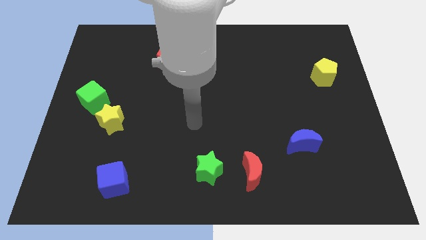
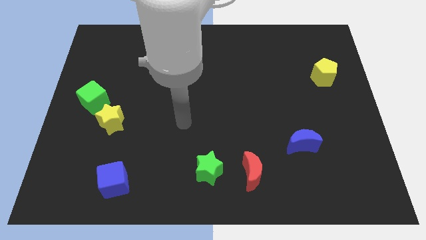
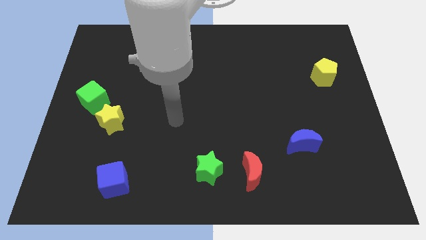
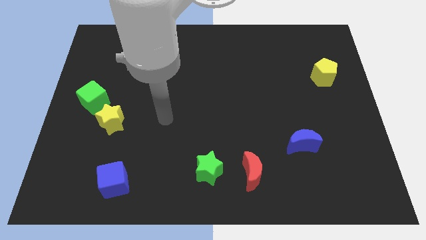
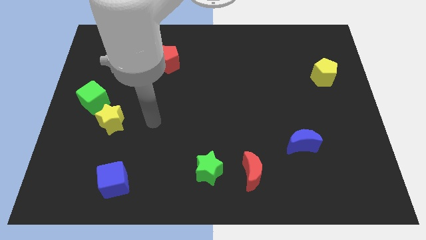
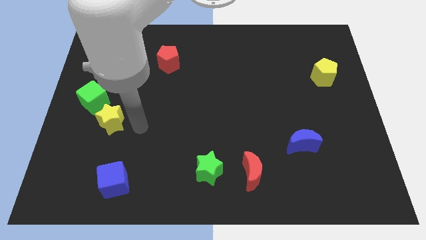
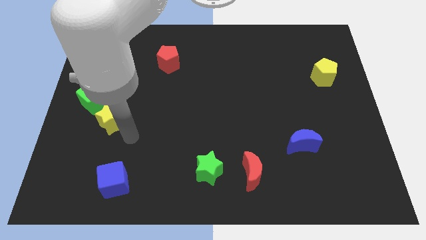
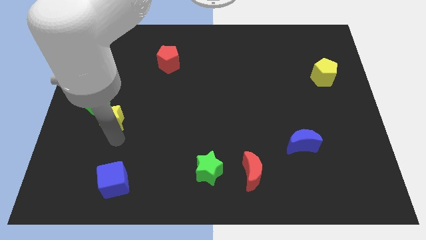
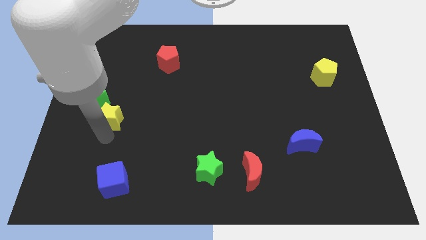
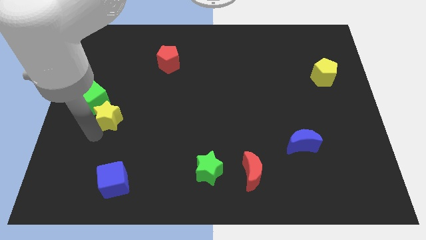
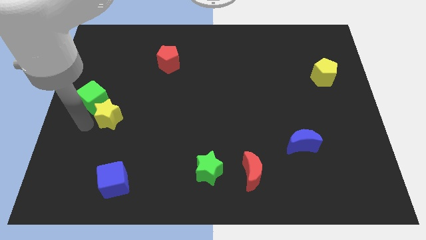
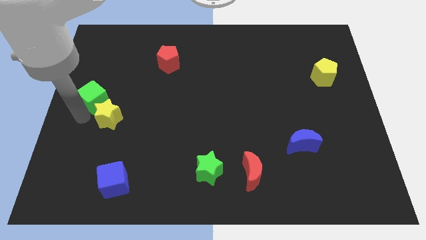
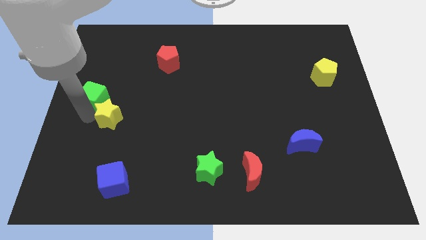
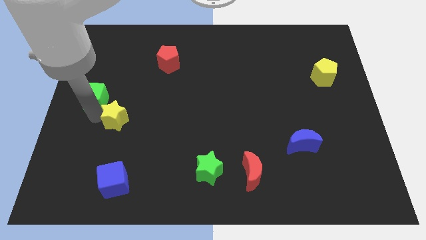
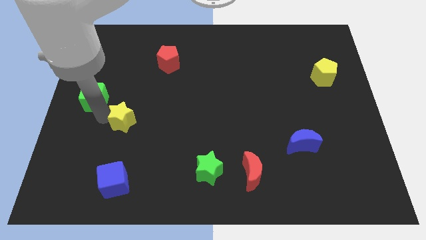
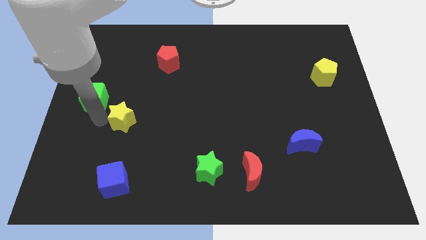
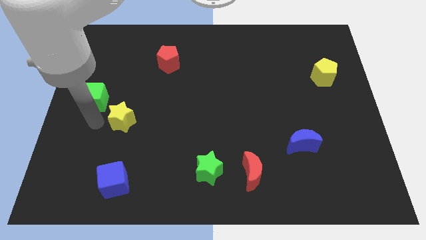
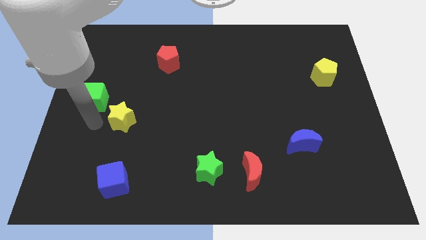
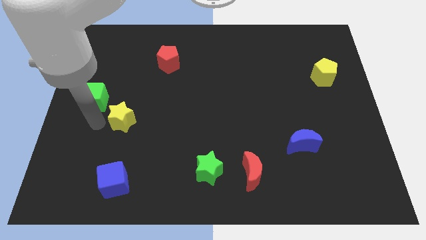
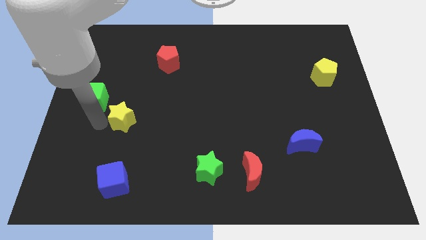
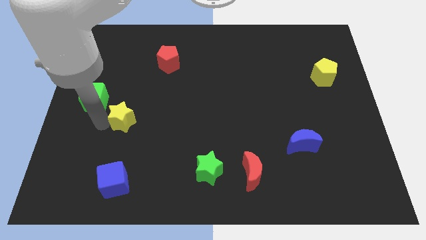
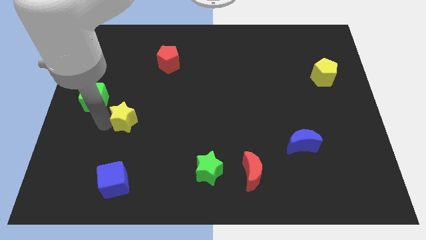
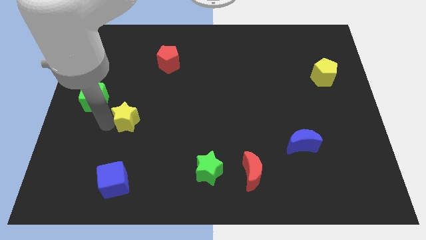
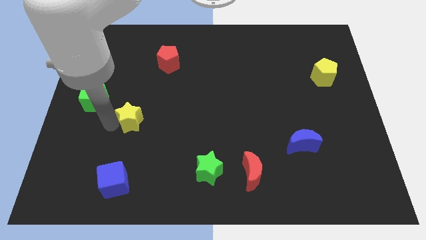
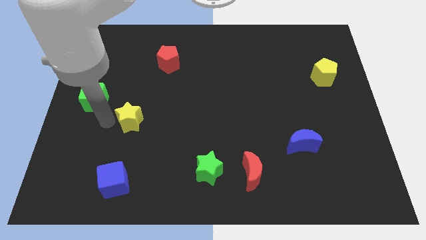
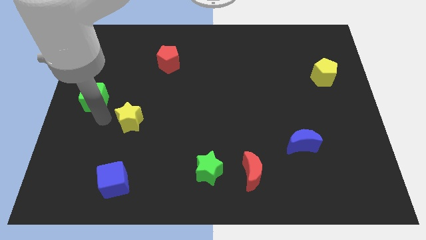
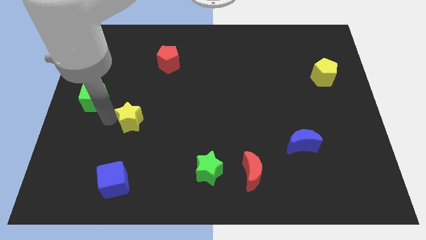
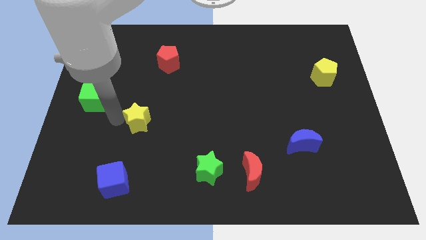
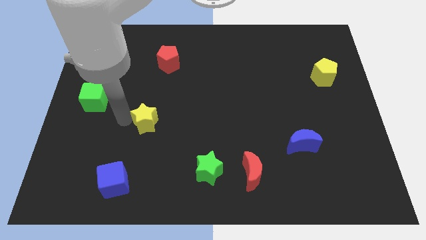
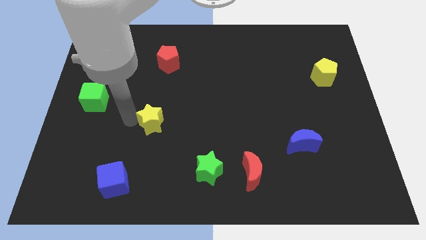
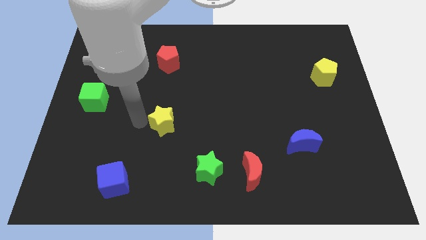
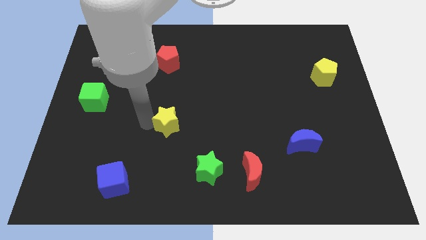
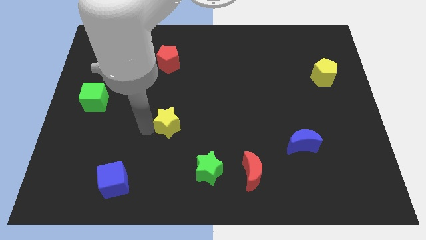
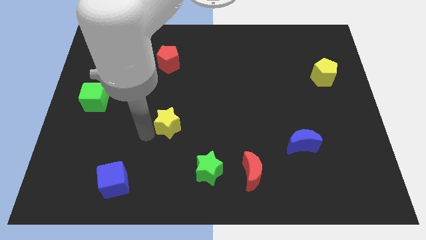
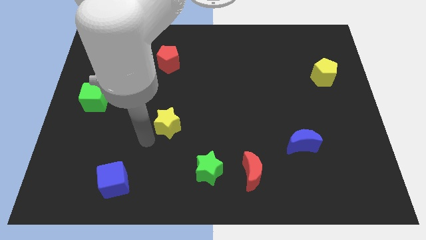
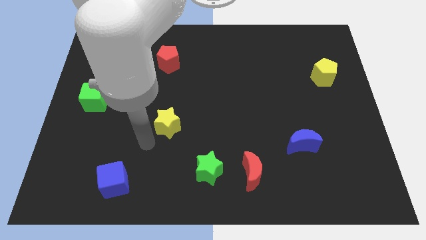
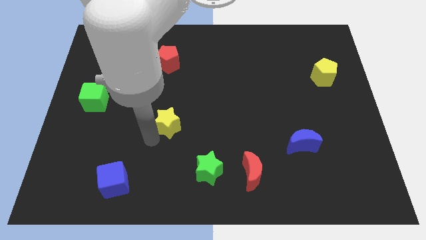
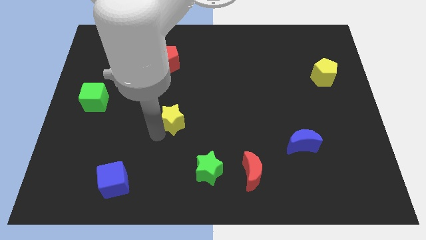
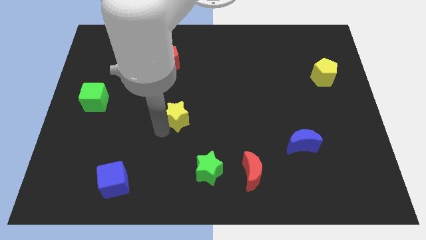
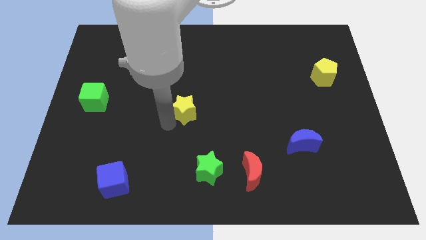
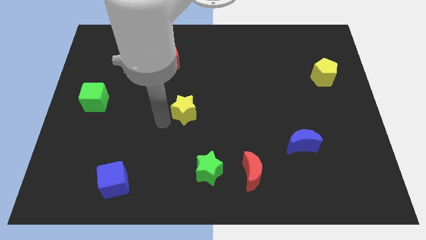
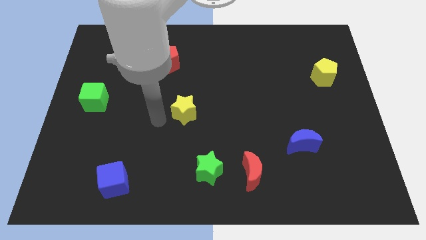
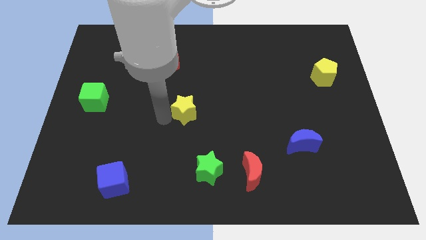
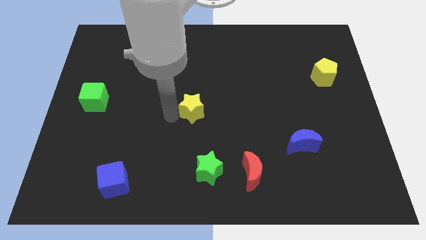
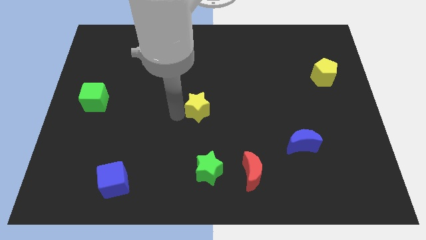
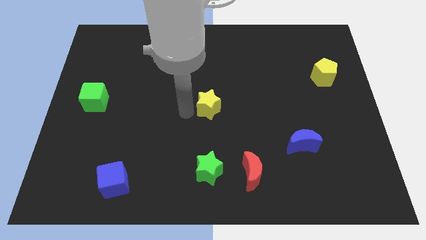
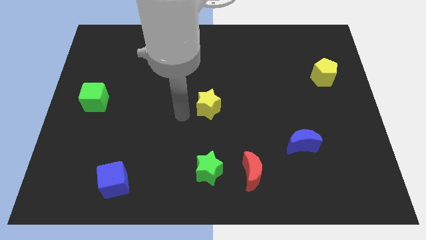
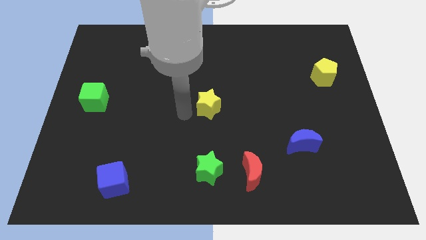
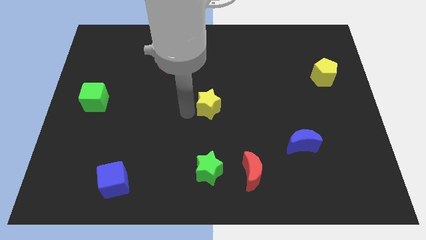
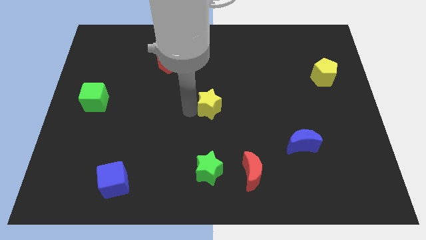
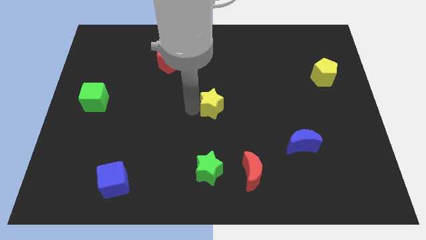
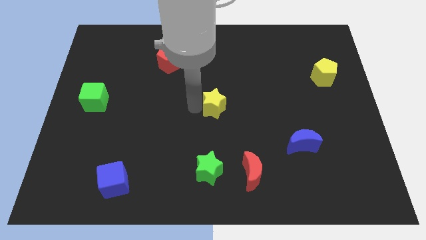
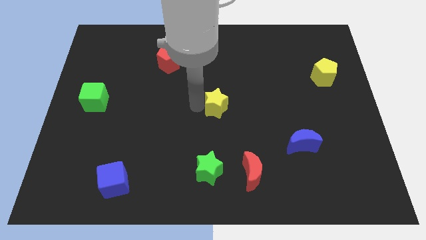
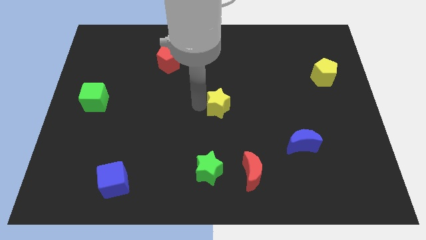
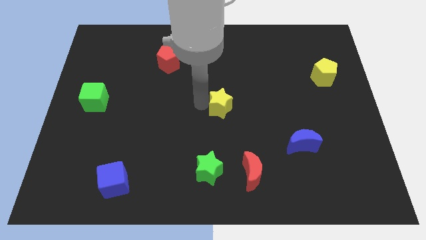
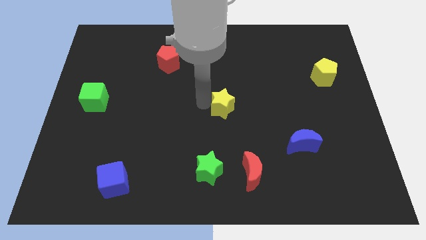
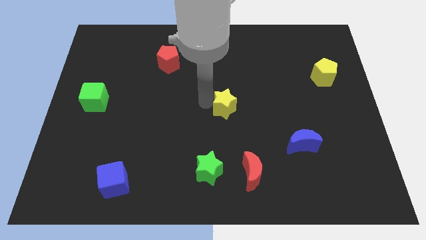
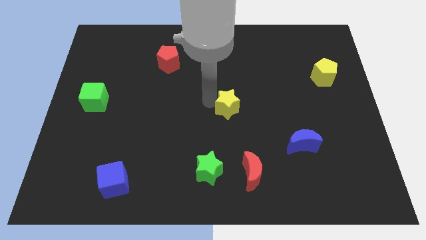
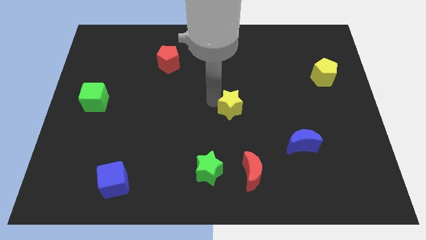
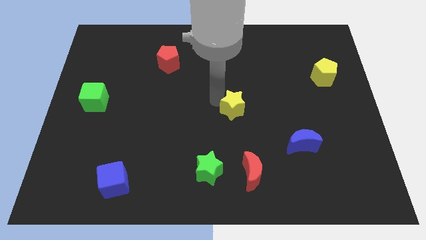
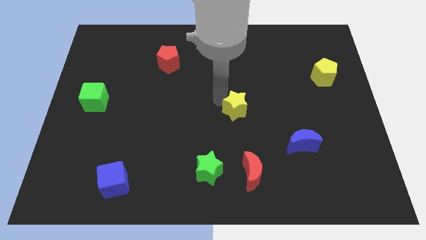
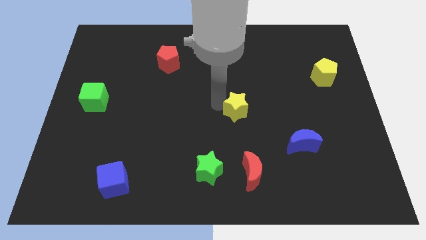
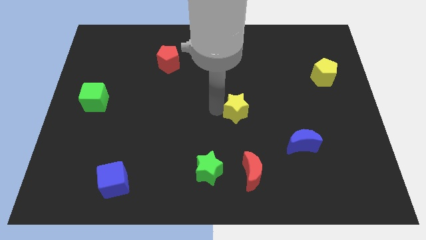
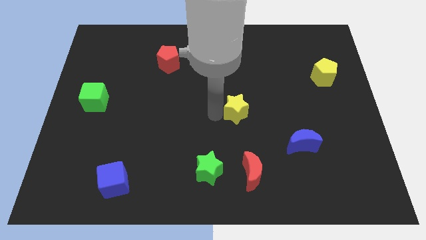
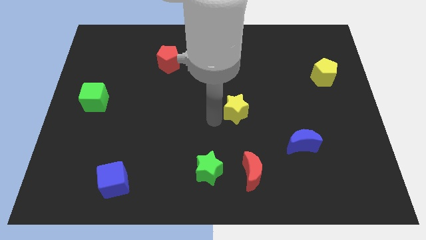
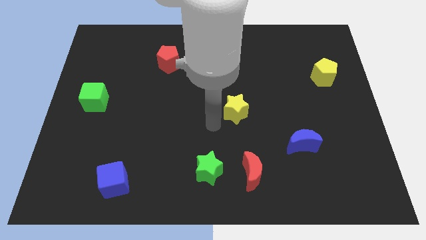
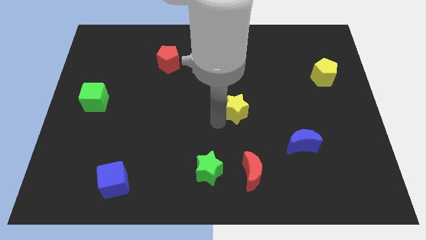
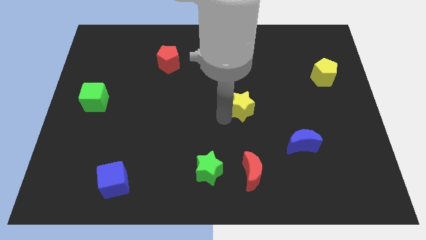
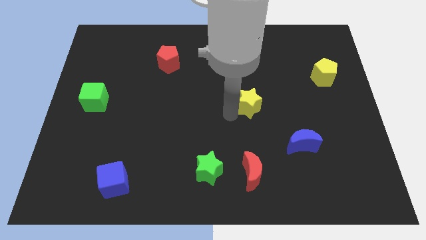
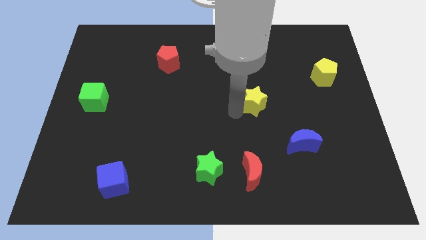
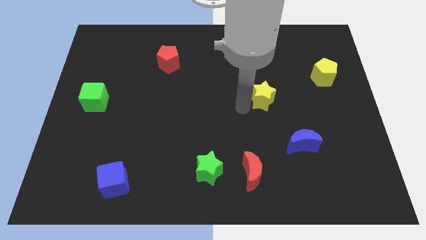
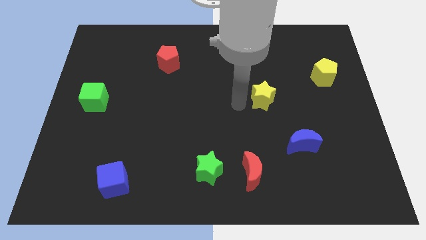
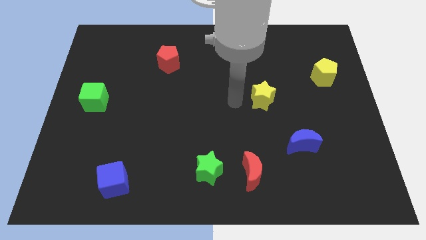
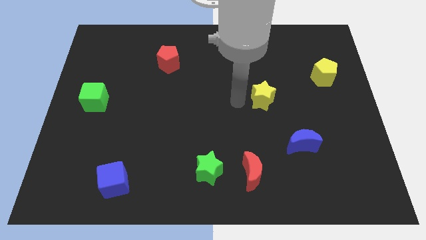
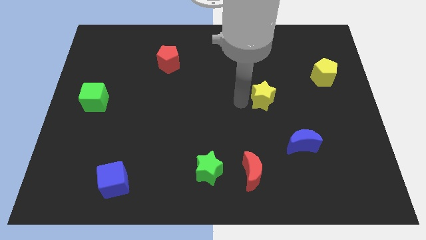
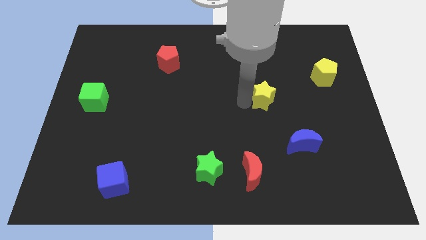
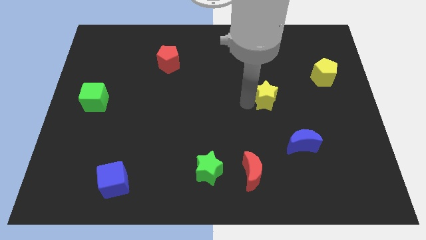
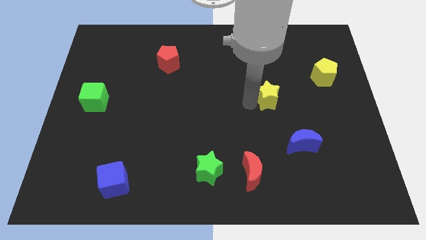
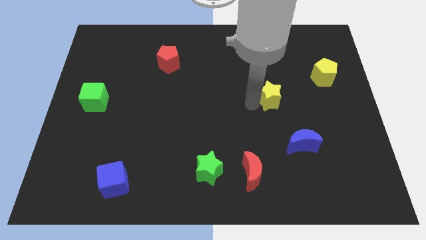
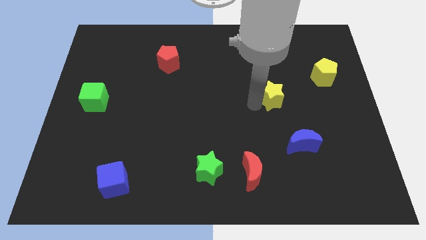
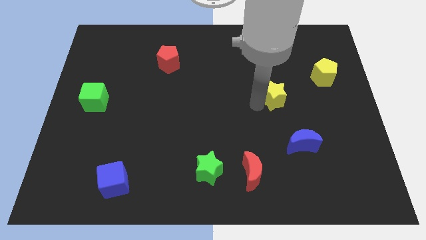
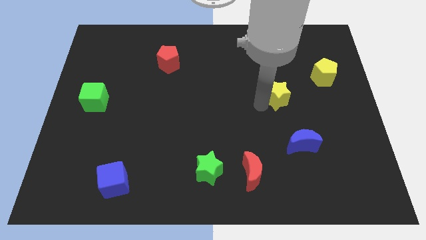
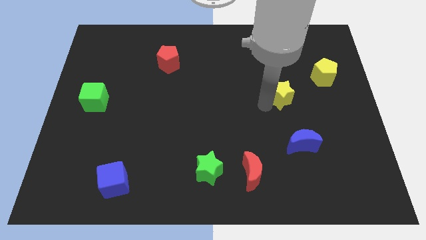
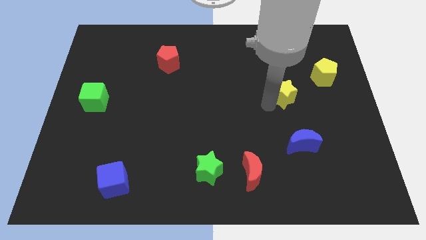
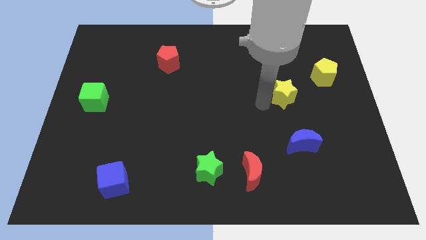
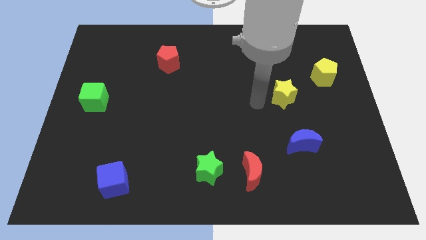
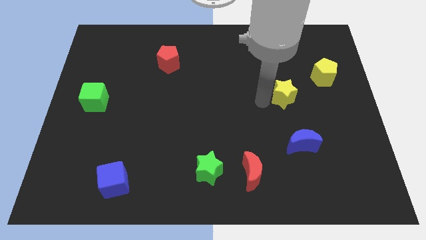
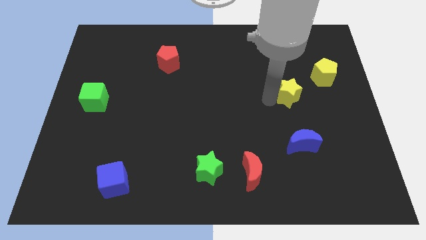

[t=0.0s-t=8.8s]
slide the yellow star diagonally down and to the left of the yellow pentagon
